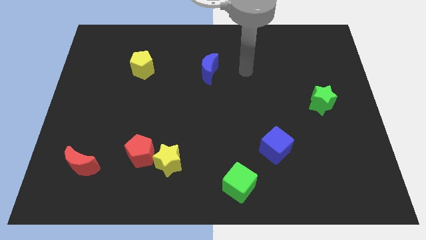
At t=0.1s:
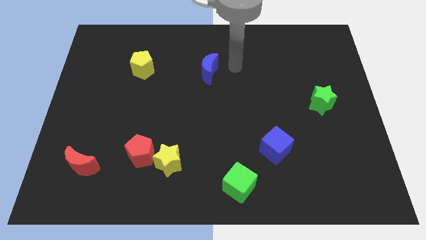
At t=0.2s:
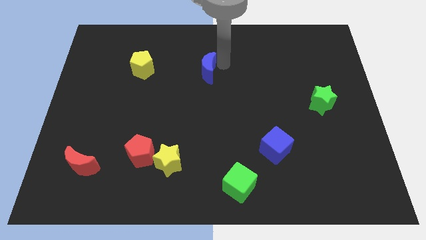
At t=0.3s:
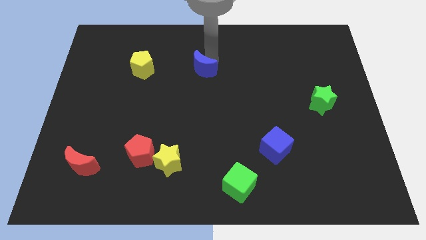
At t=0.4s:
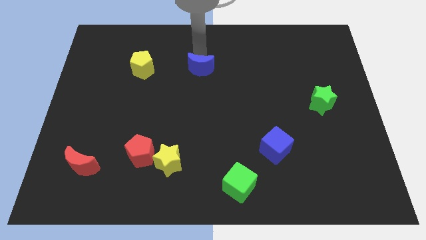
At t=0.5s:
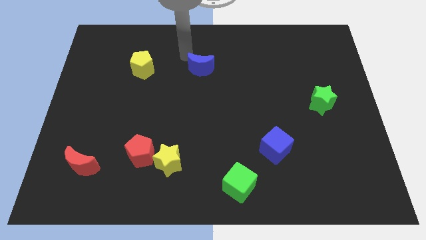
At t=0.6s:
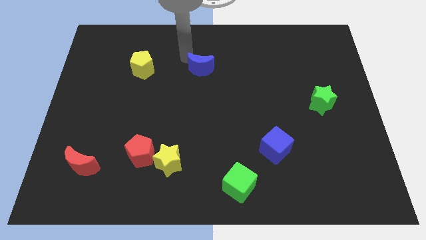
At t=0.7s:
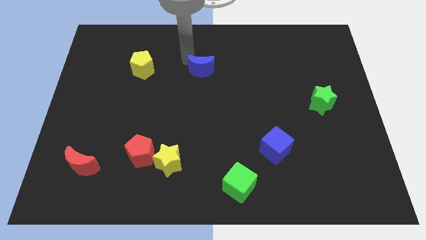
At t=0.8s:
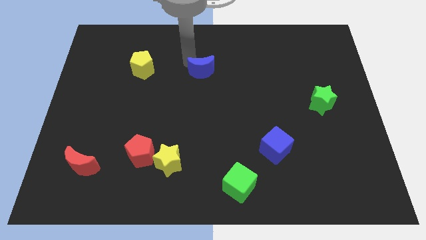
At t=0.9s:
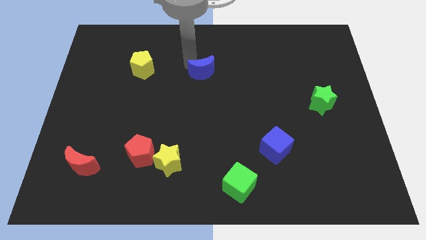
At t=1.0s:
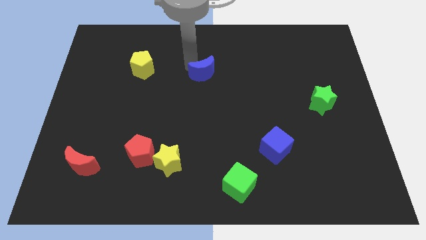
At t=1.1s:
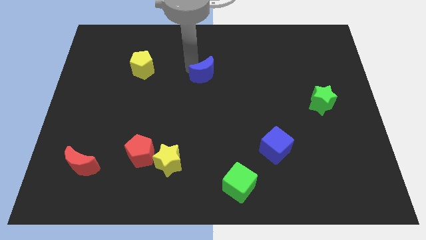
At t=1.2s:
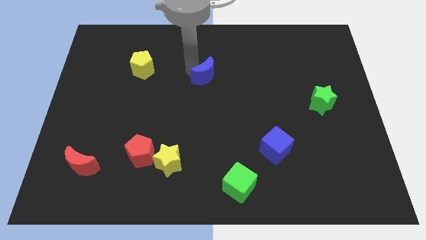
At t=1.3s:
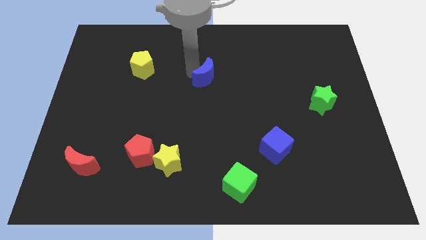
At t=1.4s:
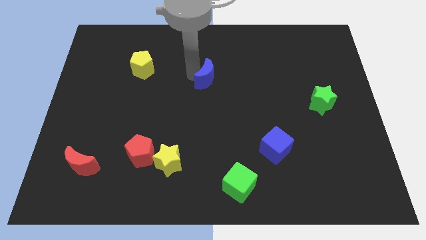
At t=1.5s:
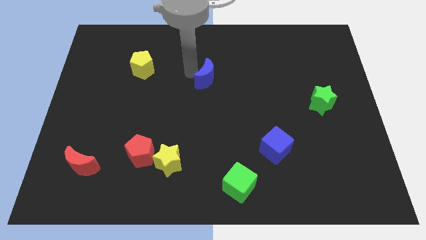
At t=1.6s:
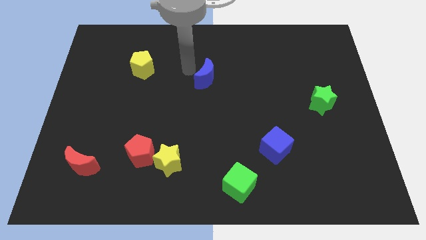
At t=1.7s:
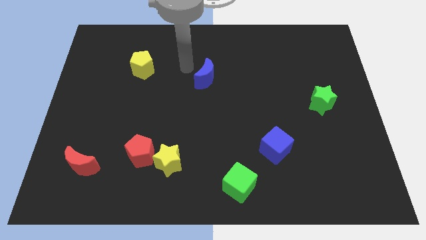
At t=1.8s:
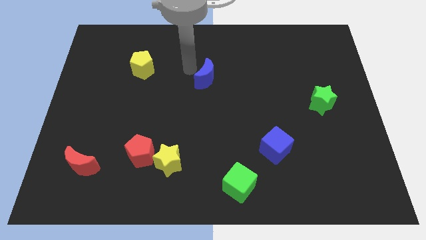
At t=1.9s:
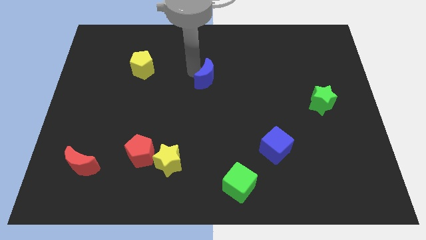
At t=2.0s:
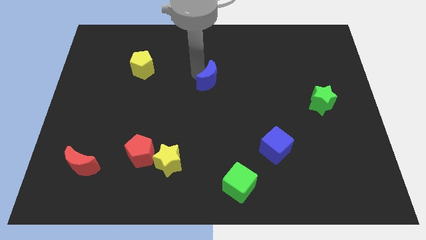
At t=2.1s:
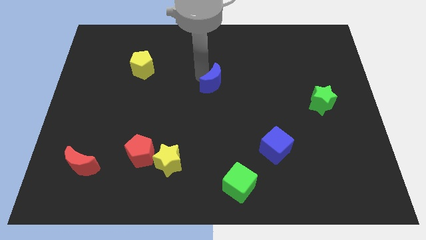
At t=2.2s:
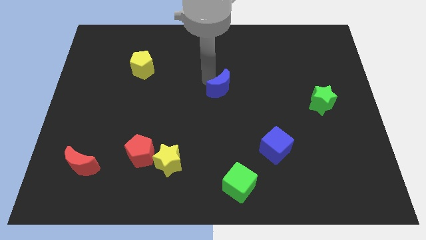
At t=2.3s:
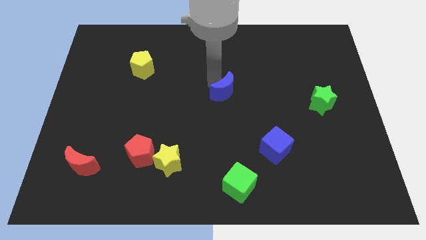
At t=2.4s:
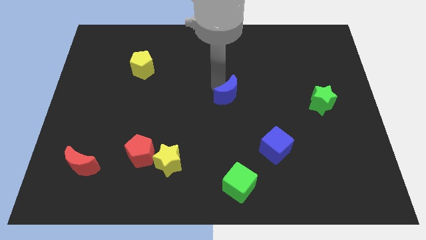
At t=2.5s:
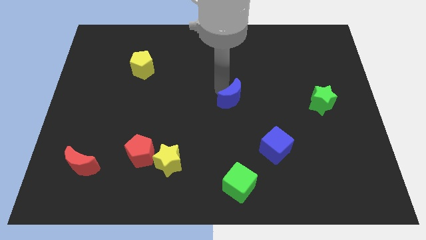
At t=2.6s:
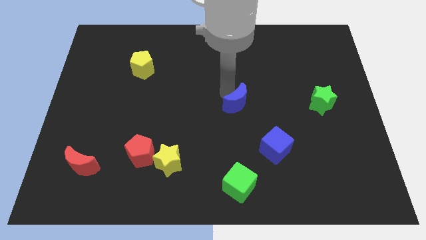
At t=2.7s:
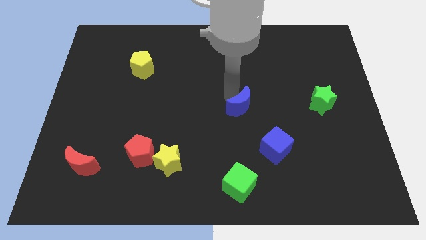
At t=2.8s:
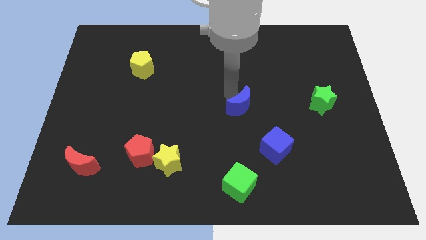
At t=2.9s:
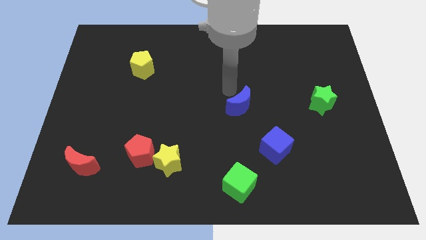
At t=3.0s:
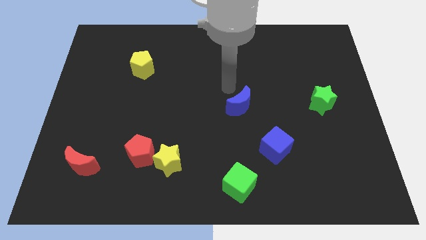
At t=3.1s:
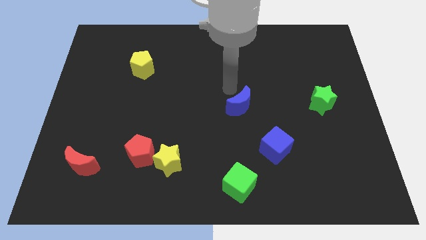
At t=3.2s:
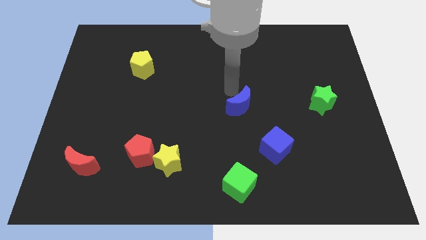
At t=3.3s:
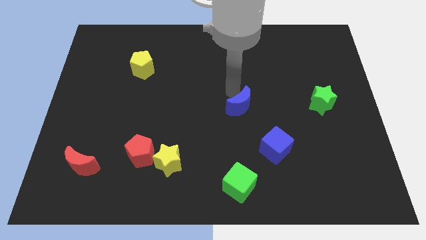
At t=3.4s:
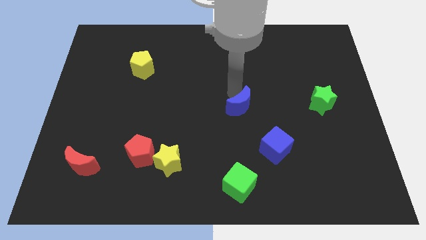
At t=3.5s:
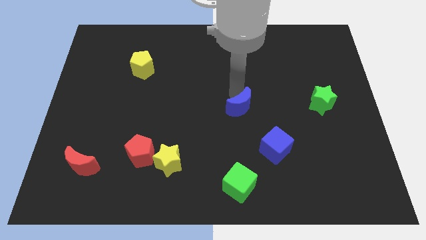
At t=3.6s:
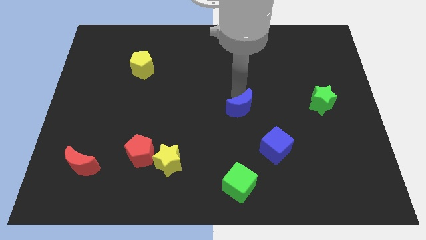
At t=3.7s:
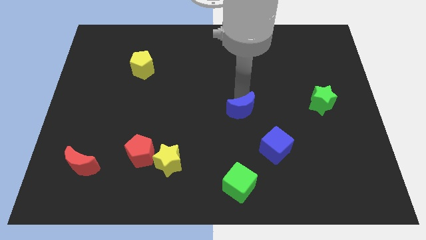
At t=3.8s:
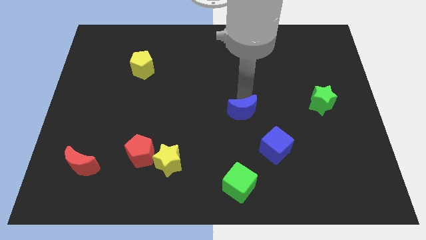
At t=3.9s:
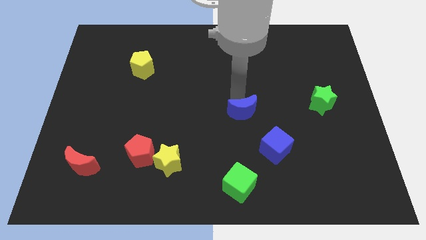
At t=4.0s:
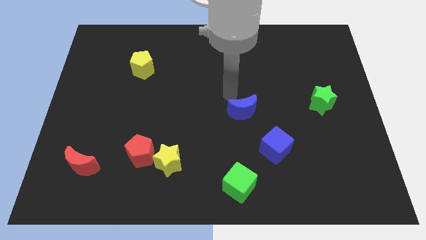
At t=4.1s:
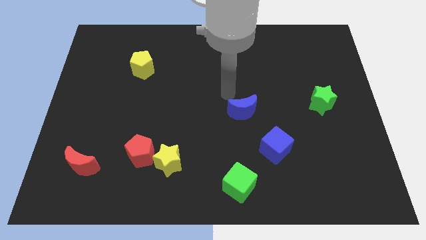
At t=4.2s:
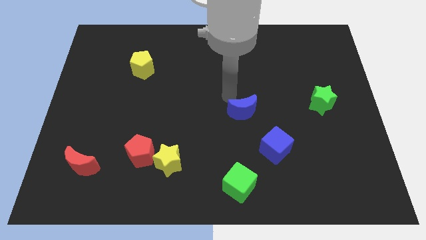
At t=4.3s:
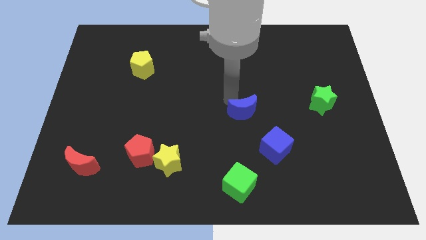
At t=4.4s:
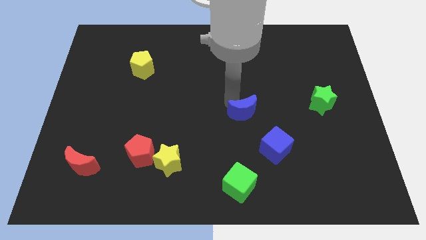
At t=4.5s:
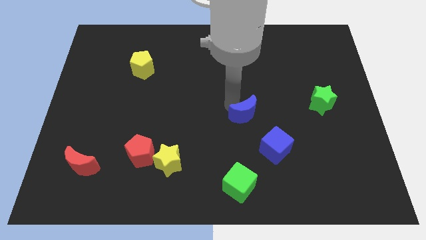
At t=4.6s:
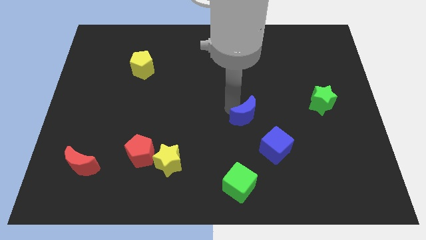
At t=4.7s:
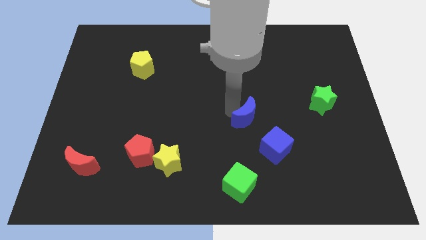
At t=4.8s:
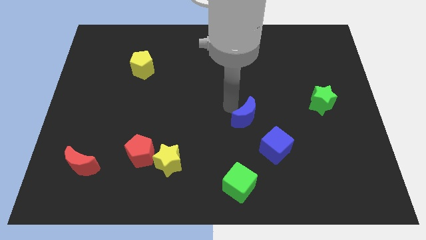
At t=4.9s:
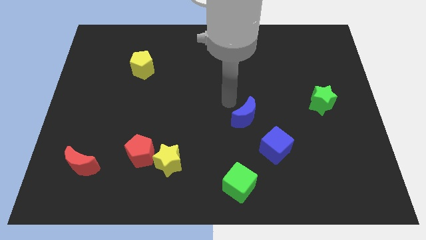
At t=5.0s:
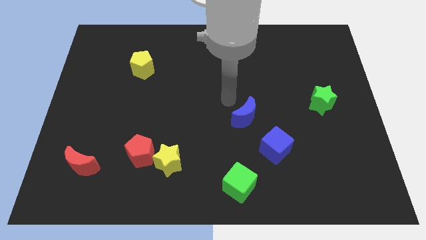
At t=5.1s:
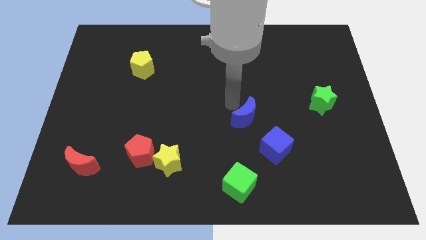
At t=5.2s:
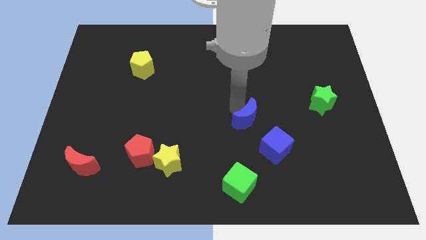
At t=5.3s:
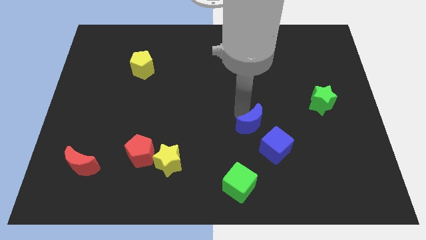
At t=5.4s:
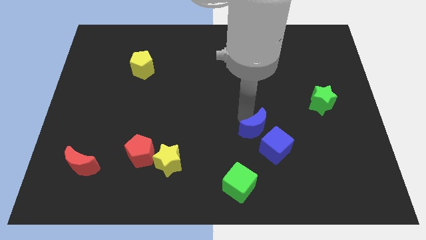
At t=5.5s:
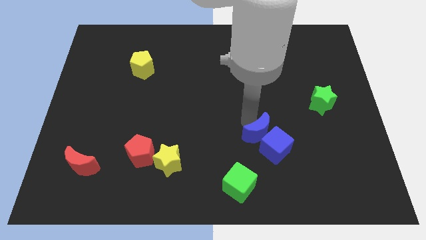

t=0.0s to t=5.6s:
move the blue moon towards the blue cube
